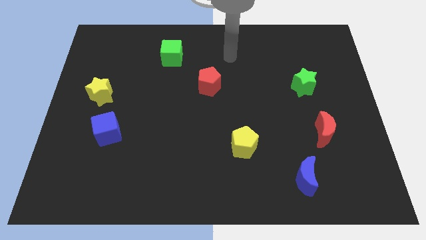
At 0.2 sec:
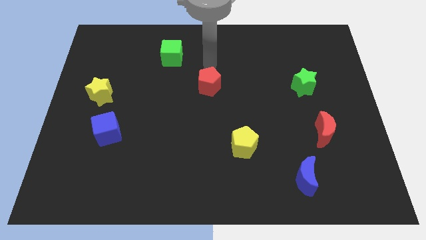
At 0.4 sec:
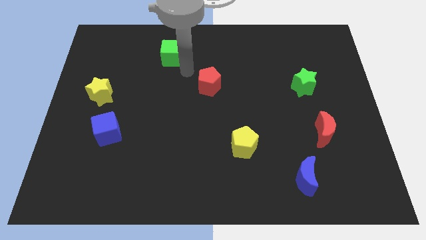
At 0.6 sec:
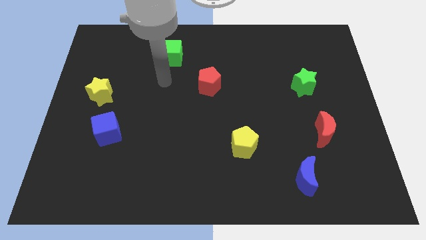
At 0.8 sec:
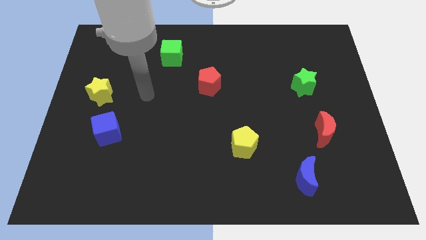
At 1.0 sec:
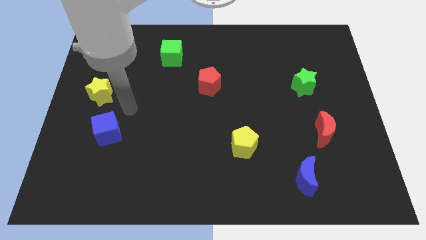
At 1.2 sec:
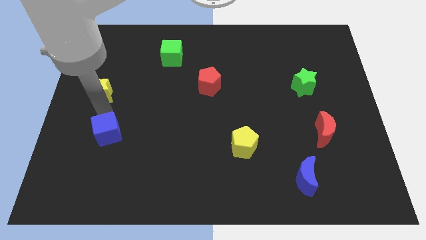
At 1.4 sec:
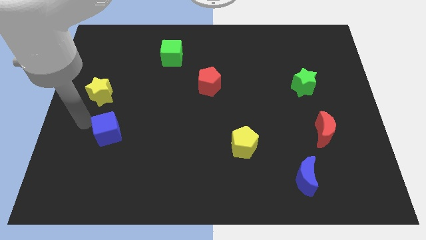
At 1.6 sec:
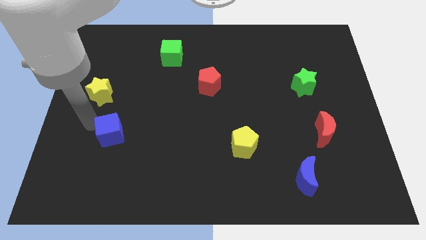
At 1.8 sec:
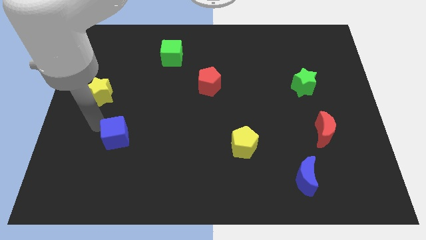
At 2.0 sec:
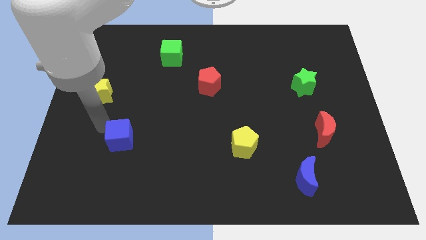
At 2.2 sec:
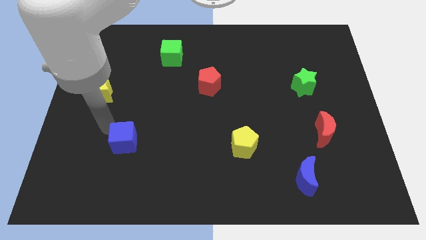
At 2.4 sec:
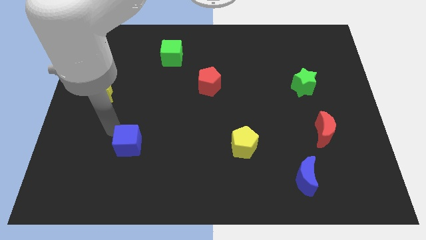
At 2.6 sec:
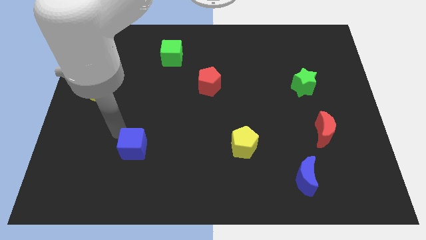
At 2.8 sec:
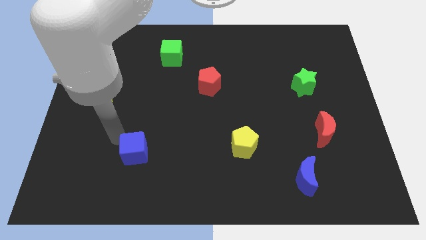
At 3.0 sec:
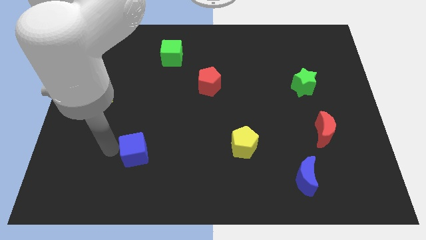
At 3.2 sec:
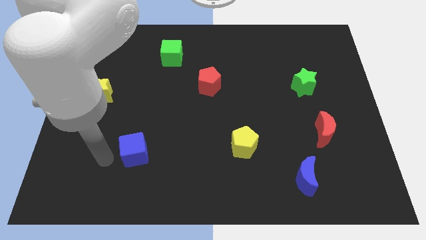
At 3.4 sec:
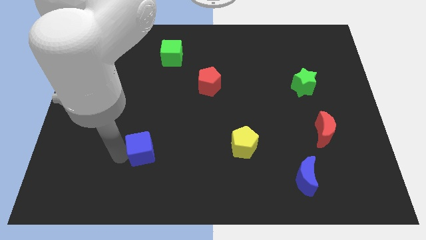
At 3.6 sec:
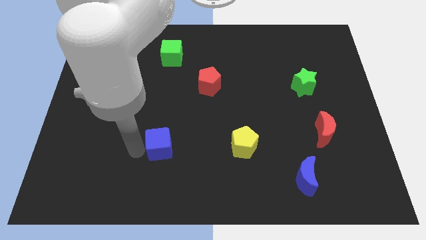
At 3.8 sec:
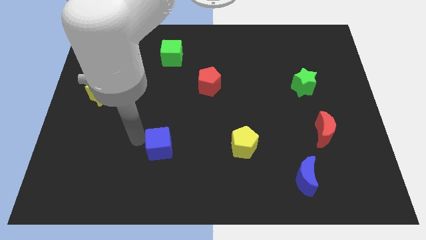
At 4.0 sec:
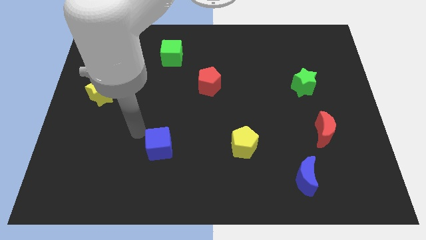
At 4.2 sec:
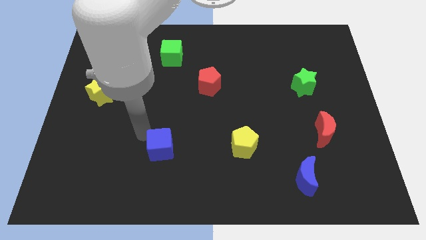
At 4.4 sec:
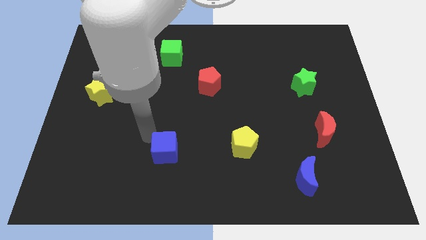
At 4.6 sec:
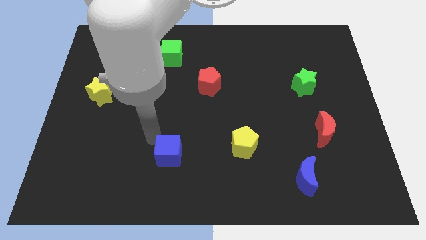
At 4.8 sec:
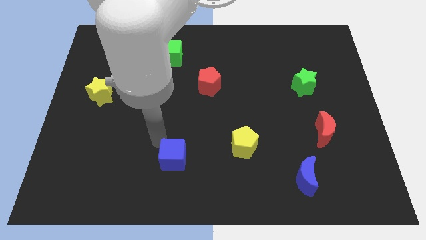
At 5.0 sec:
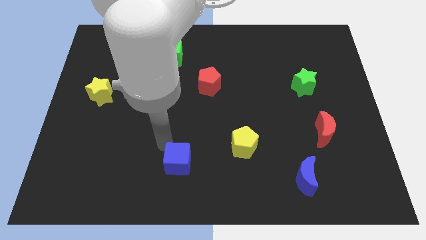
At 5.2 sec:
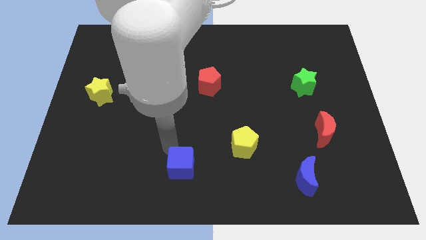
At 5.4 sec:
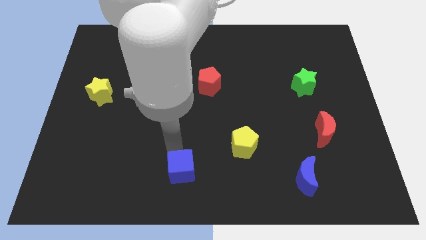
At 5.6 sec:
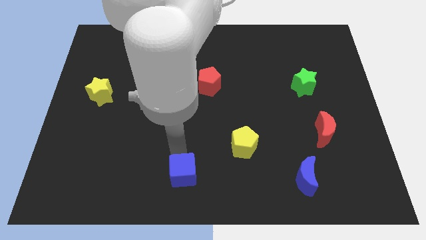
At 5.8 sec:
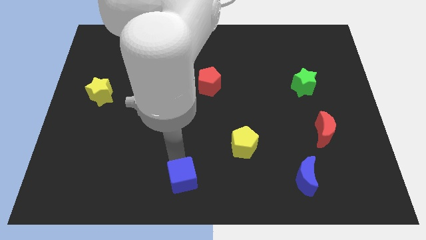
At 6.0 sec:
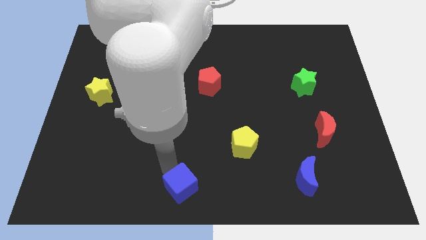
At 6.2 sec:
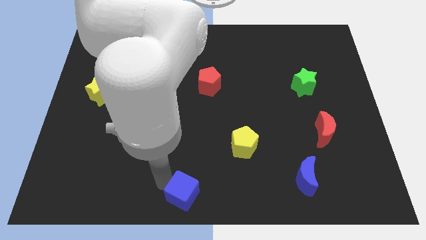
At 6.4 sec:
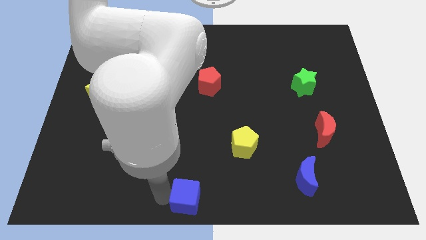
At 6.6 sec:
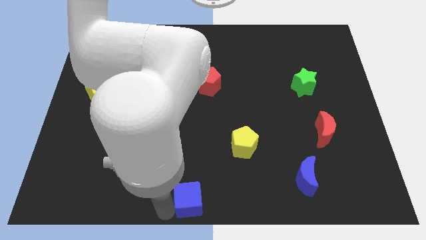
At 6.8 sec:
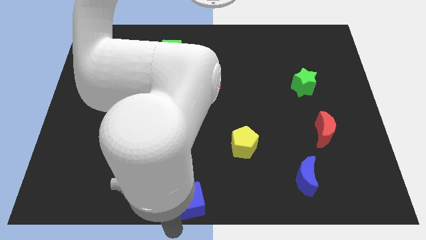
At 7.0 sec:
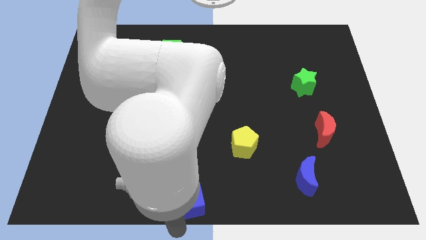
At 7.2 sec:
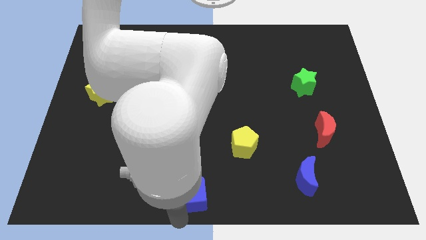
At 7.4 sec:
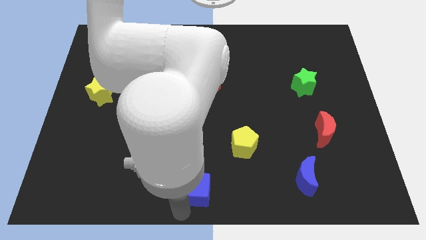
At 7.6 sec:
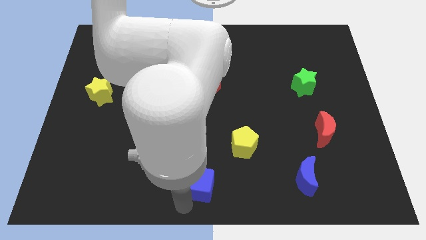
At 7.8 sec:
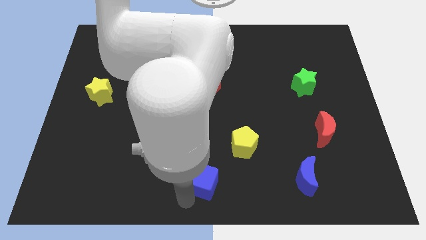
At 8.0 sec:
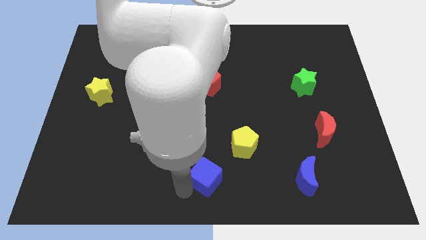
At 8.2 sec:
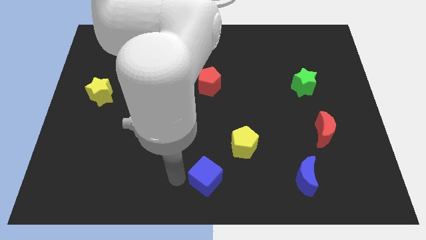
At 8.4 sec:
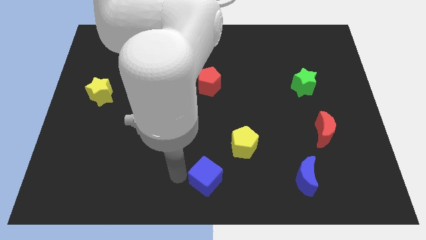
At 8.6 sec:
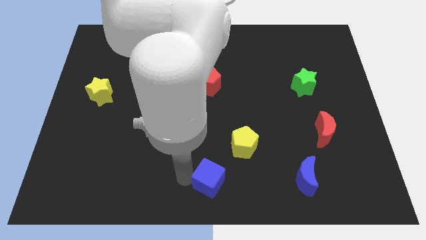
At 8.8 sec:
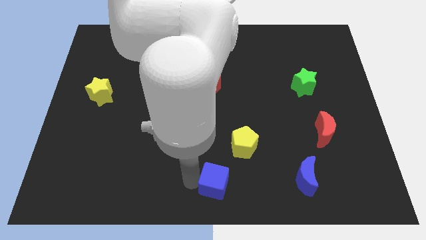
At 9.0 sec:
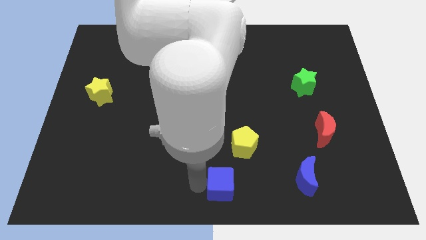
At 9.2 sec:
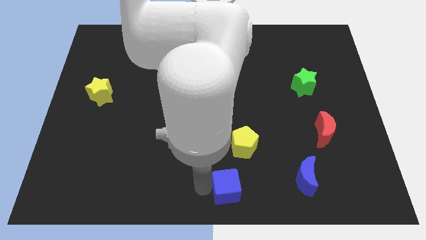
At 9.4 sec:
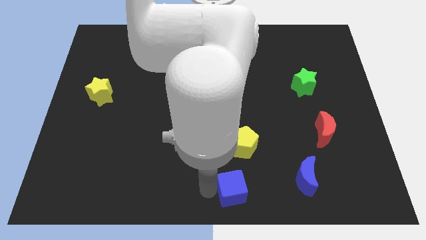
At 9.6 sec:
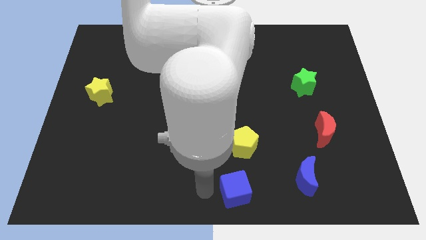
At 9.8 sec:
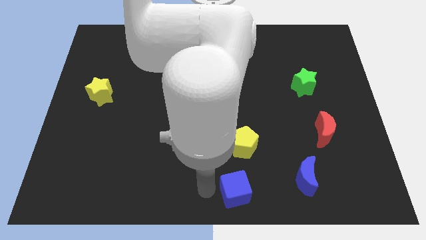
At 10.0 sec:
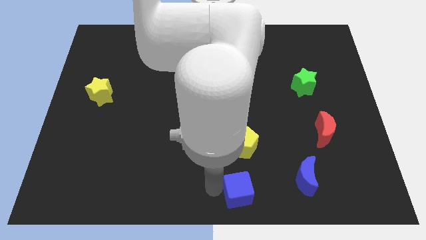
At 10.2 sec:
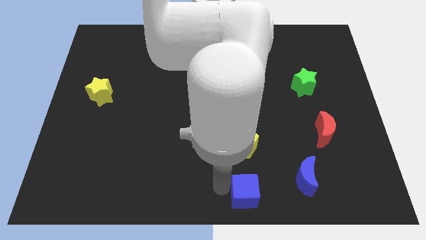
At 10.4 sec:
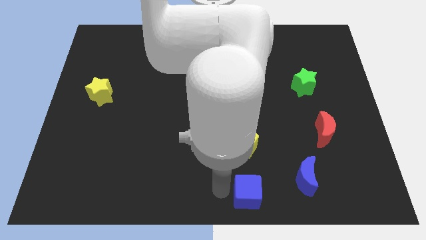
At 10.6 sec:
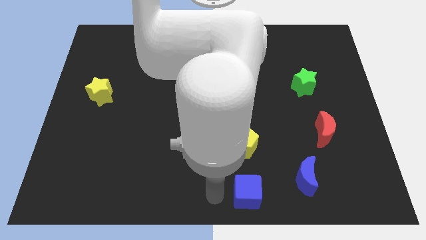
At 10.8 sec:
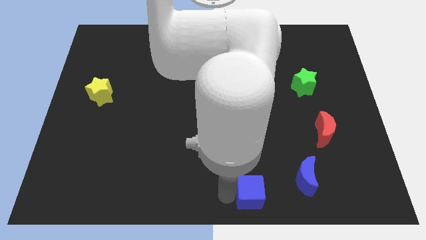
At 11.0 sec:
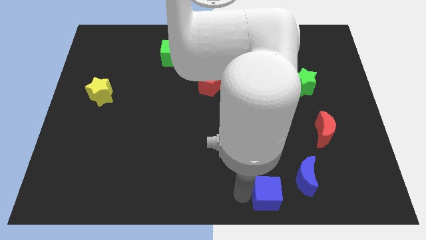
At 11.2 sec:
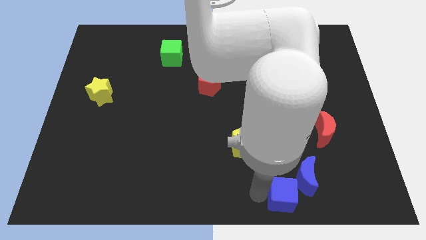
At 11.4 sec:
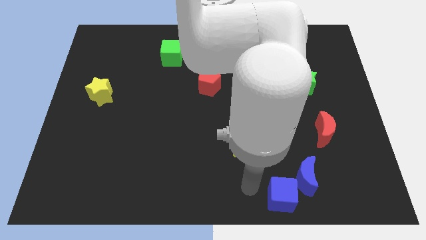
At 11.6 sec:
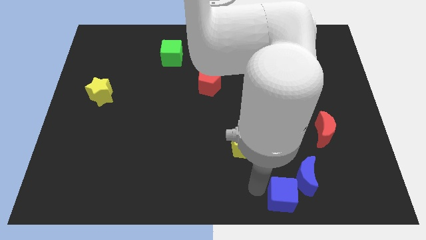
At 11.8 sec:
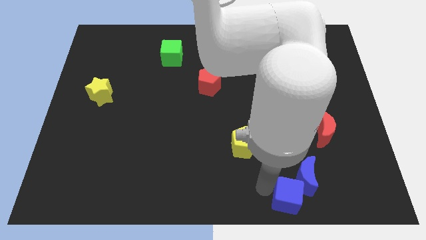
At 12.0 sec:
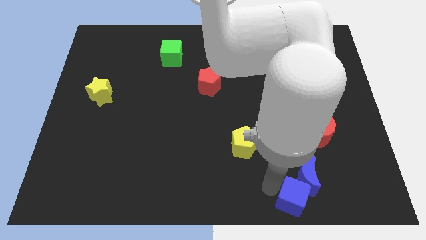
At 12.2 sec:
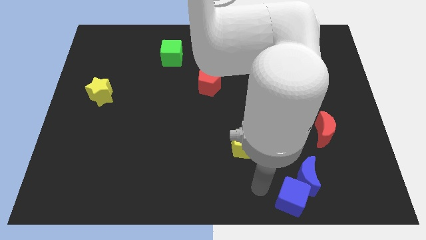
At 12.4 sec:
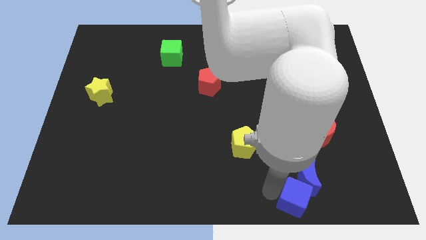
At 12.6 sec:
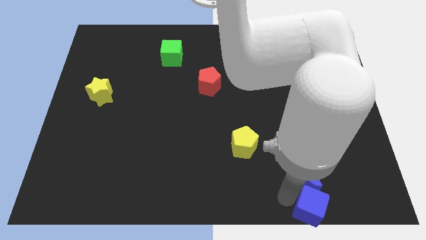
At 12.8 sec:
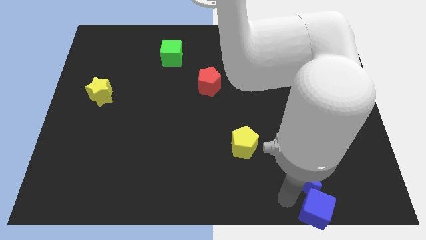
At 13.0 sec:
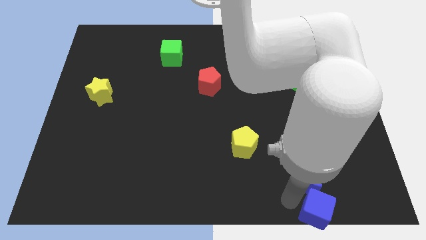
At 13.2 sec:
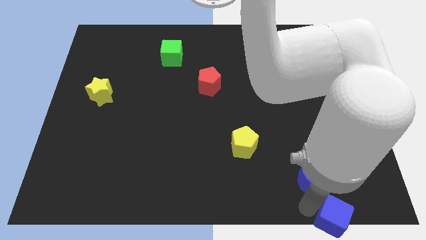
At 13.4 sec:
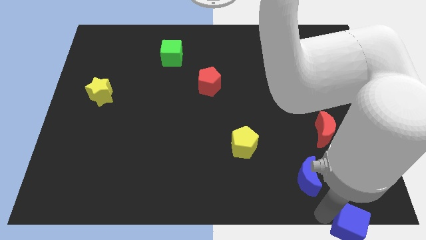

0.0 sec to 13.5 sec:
push the blue cube to the lower right corner
